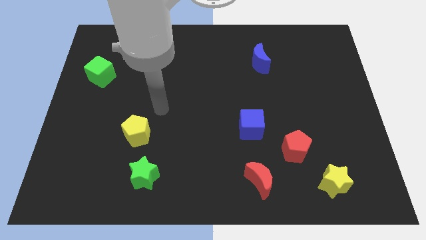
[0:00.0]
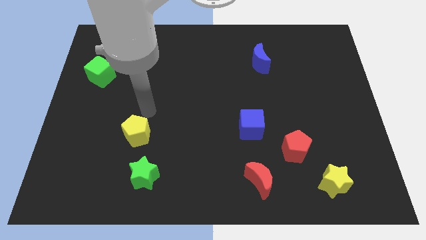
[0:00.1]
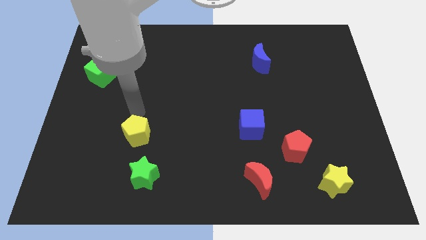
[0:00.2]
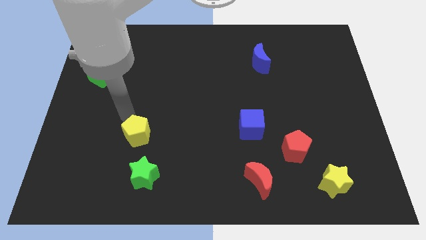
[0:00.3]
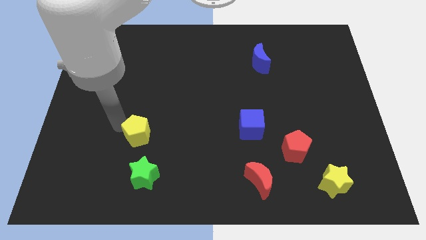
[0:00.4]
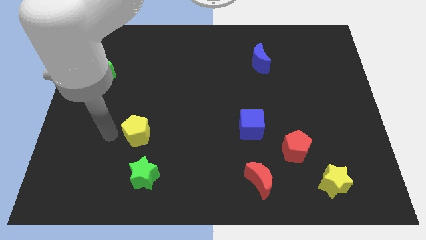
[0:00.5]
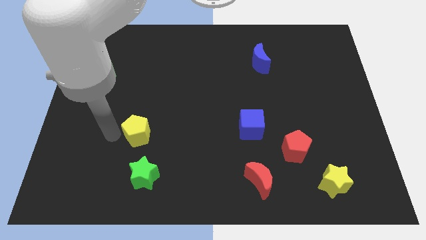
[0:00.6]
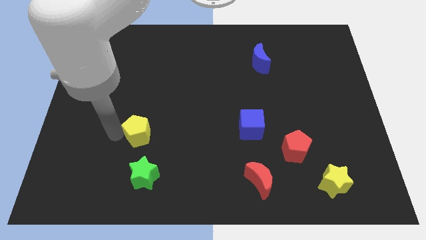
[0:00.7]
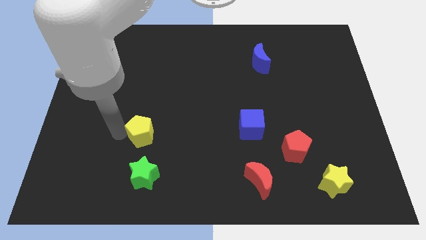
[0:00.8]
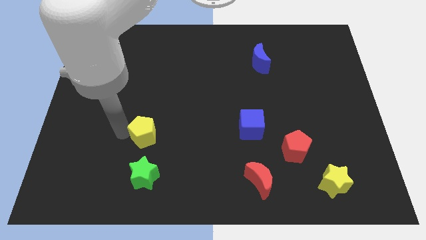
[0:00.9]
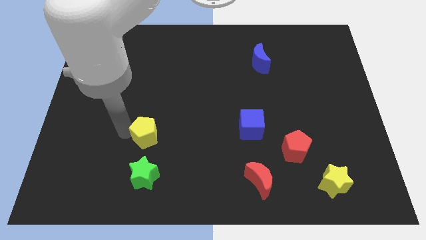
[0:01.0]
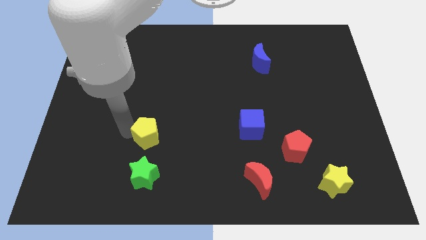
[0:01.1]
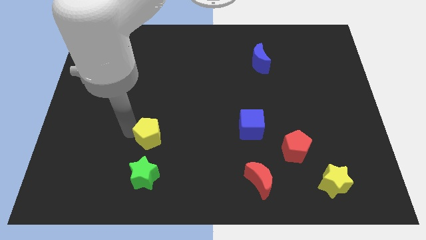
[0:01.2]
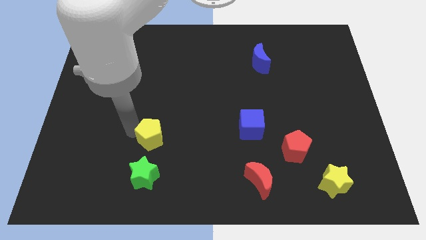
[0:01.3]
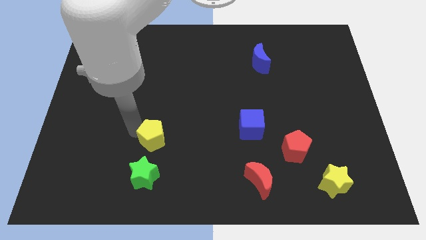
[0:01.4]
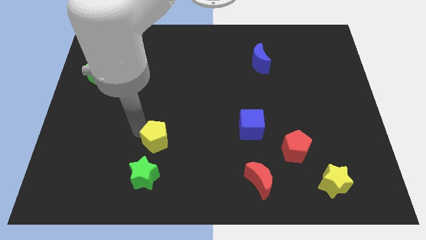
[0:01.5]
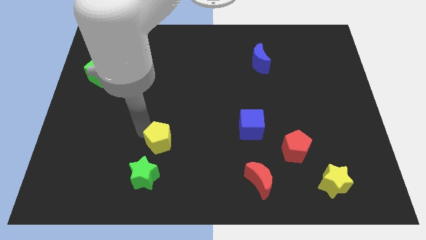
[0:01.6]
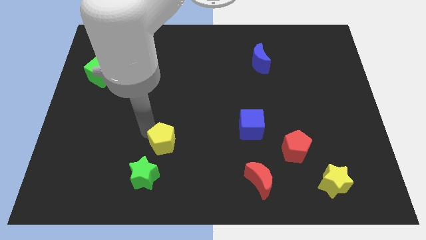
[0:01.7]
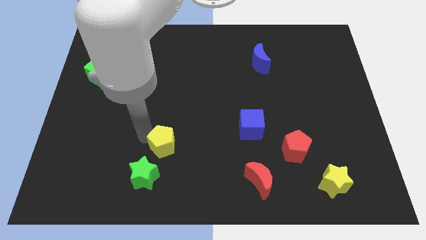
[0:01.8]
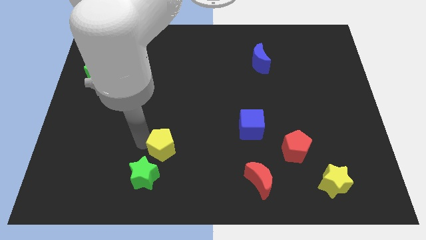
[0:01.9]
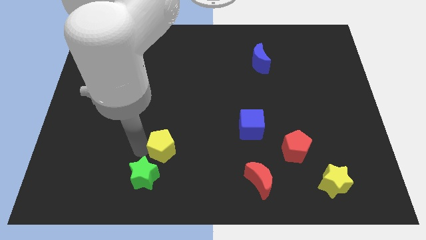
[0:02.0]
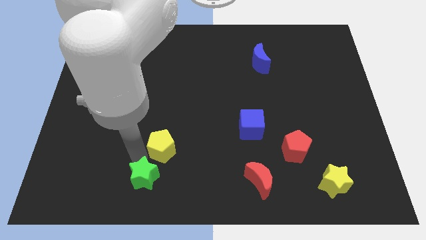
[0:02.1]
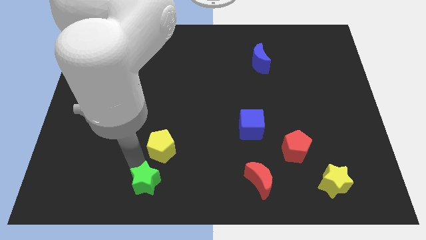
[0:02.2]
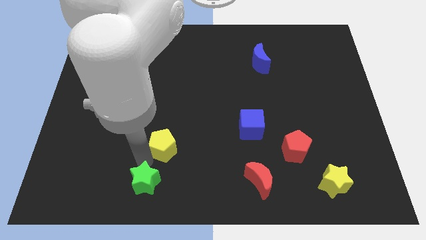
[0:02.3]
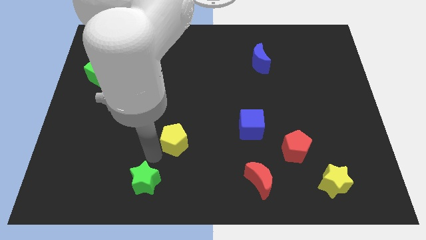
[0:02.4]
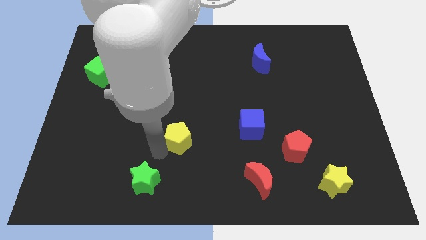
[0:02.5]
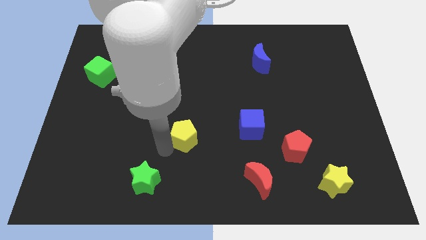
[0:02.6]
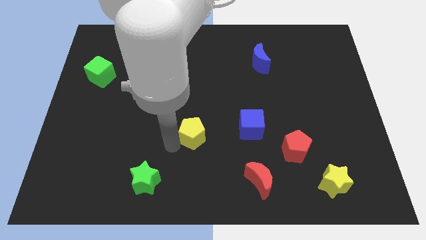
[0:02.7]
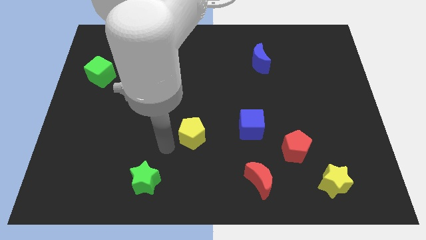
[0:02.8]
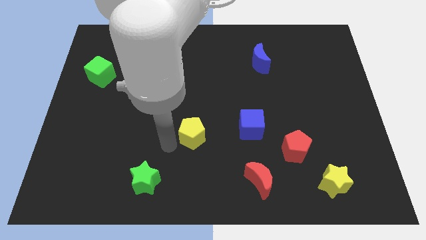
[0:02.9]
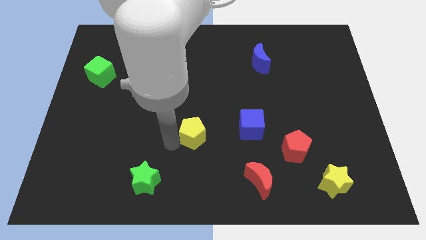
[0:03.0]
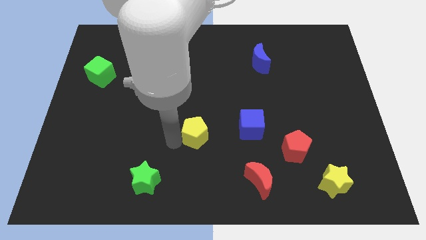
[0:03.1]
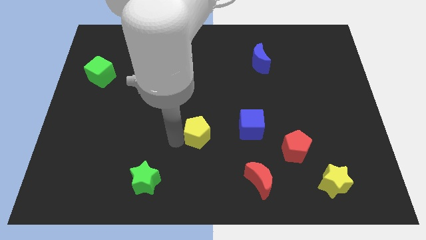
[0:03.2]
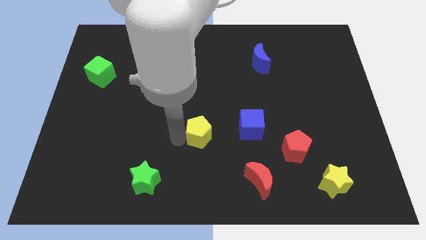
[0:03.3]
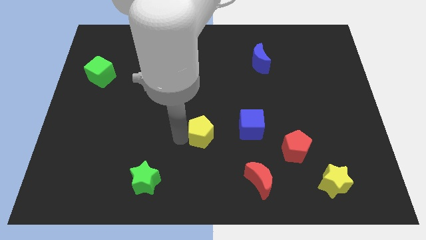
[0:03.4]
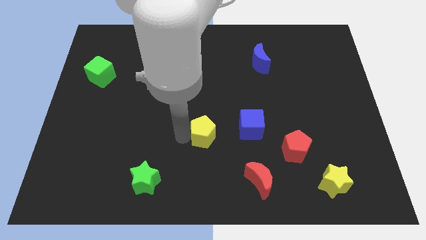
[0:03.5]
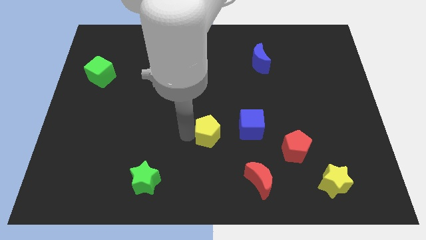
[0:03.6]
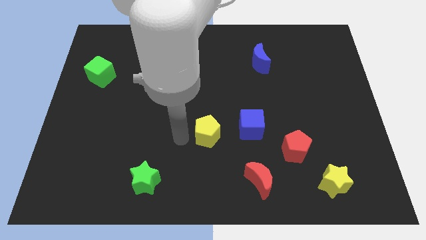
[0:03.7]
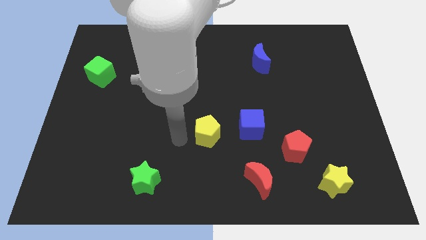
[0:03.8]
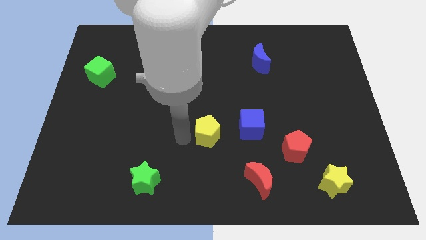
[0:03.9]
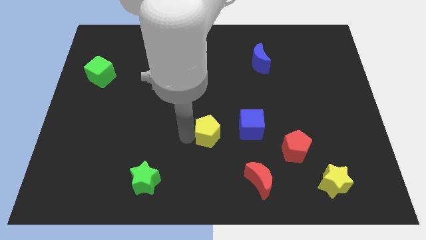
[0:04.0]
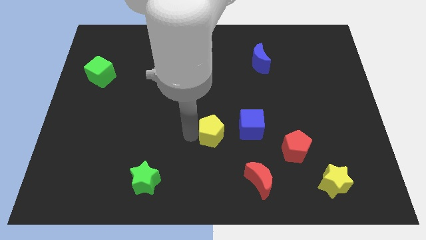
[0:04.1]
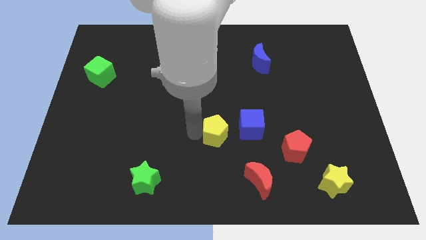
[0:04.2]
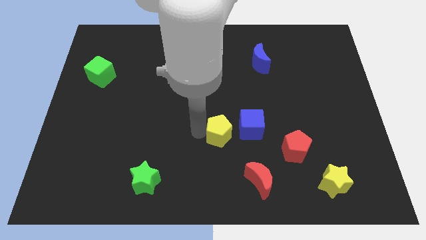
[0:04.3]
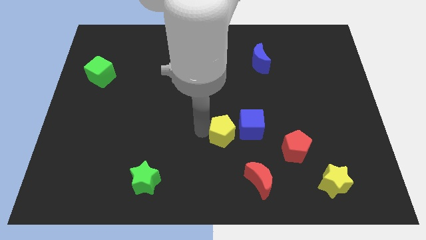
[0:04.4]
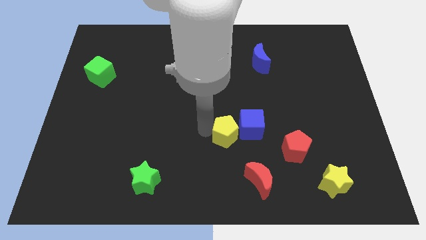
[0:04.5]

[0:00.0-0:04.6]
slide the yellow pentagon towards the blue cube

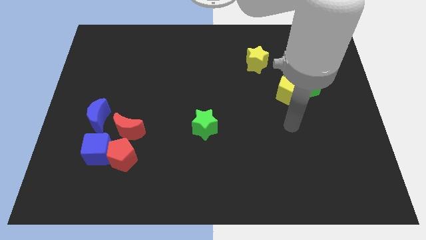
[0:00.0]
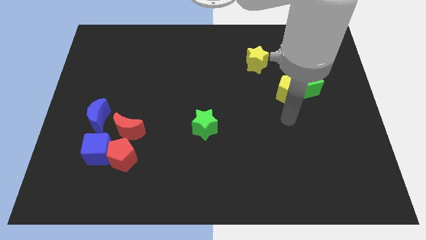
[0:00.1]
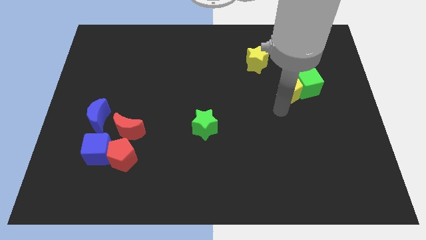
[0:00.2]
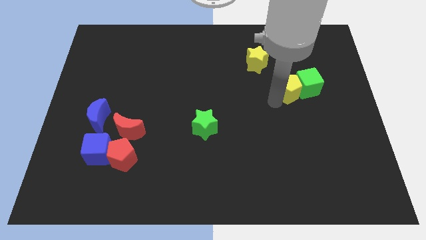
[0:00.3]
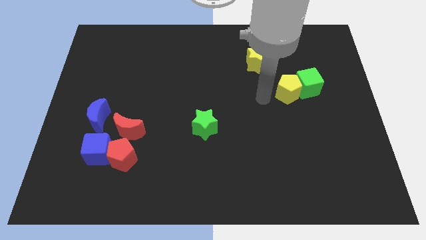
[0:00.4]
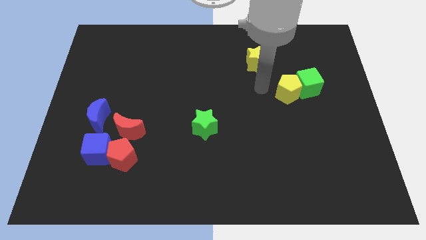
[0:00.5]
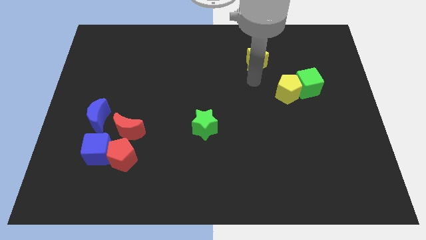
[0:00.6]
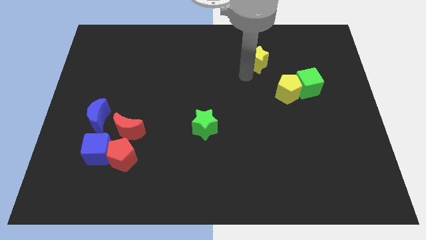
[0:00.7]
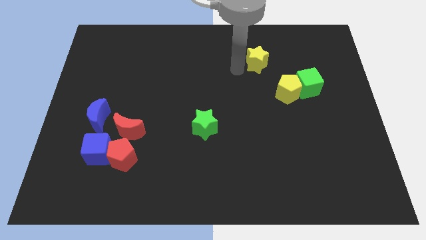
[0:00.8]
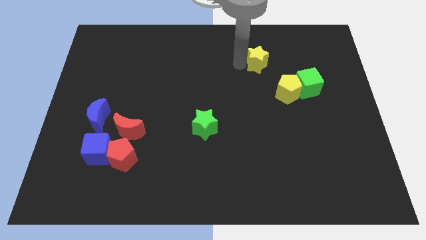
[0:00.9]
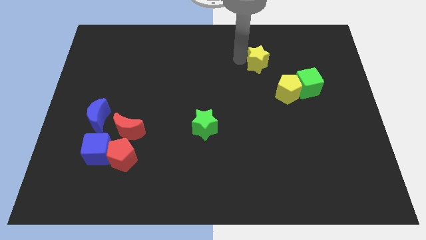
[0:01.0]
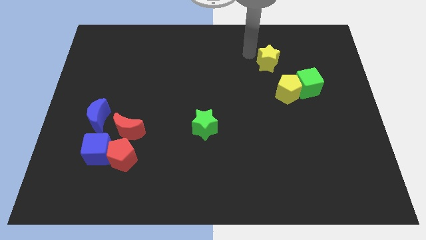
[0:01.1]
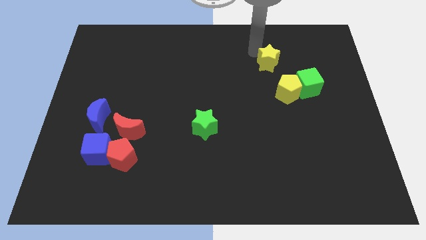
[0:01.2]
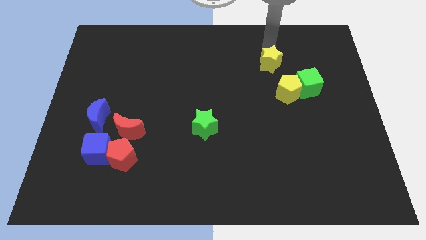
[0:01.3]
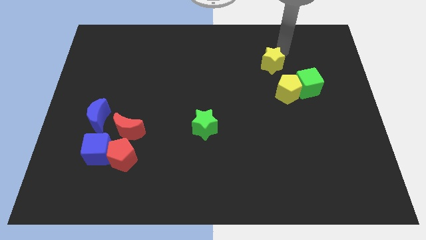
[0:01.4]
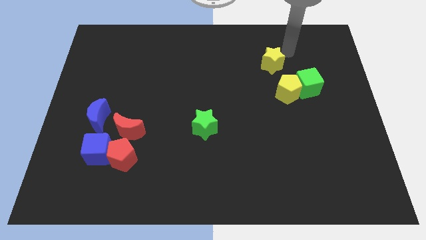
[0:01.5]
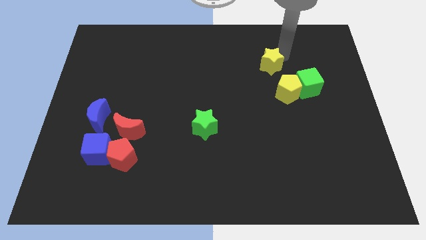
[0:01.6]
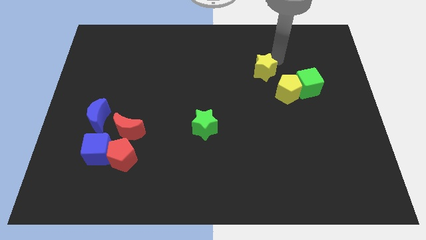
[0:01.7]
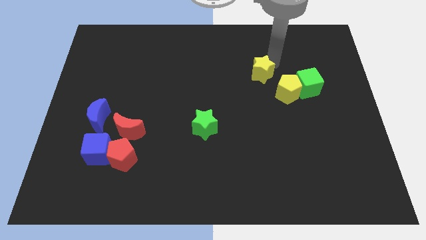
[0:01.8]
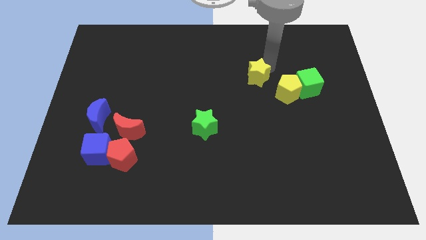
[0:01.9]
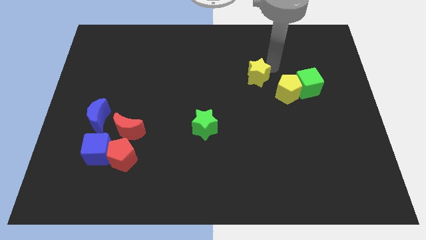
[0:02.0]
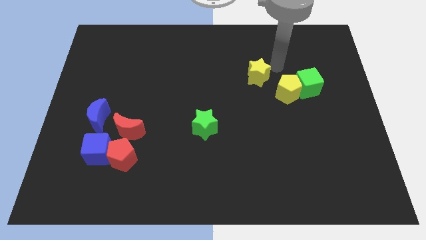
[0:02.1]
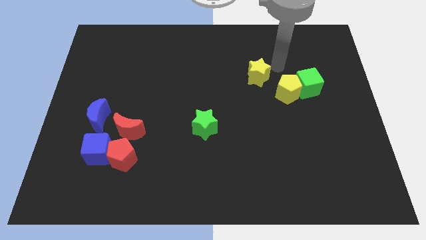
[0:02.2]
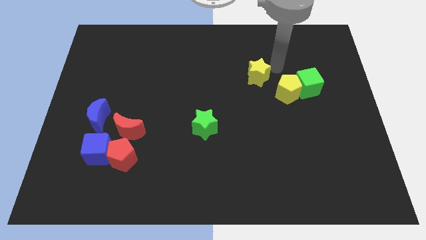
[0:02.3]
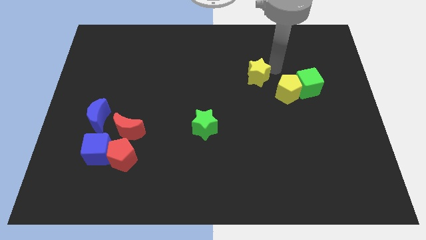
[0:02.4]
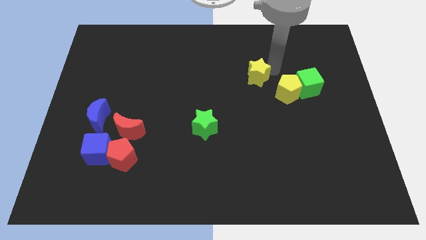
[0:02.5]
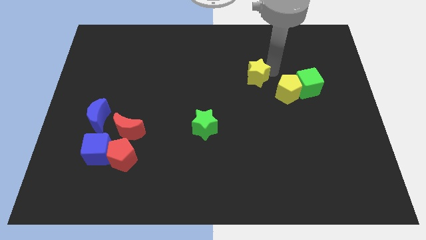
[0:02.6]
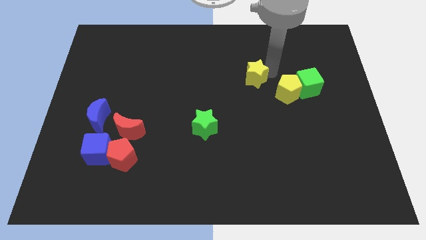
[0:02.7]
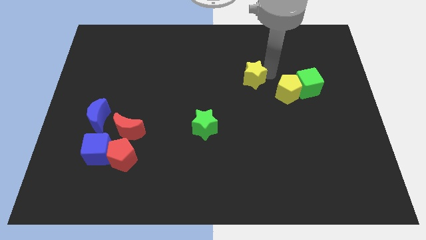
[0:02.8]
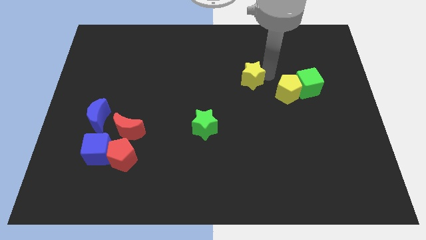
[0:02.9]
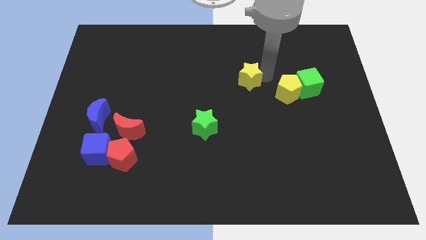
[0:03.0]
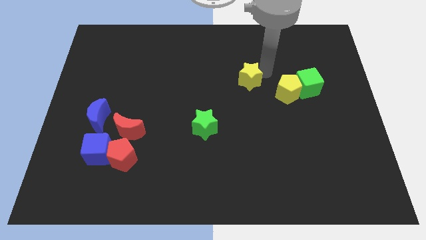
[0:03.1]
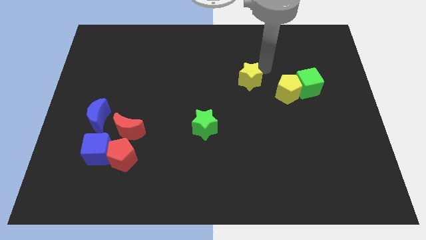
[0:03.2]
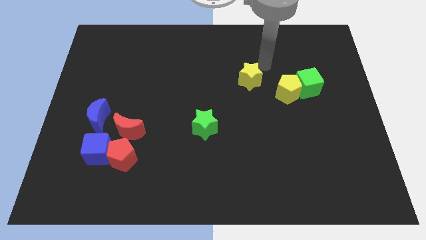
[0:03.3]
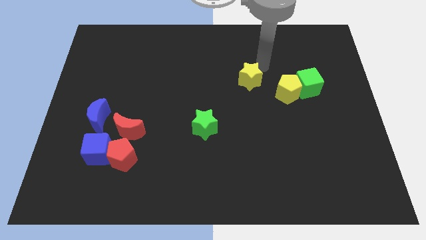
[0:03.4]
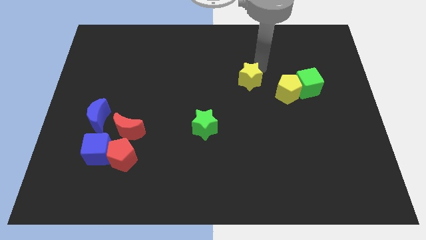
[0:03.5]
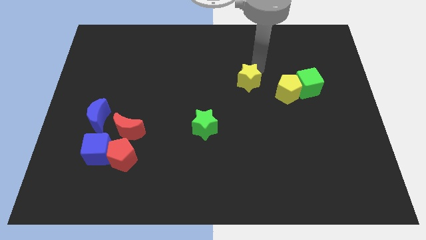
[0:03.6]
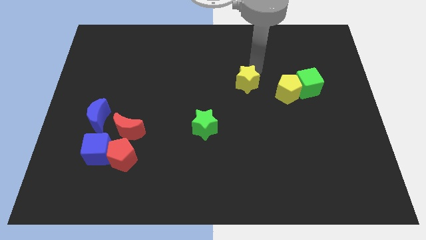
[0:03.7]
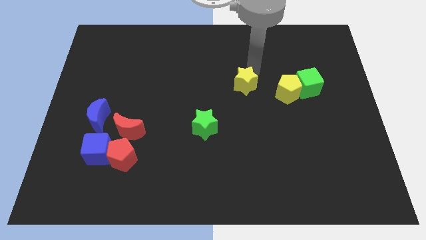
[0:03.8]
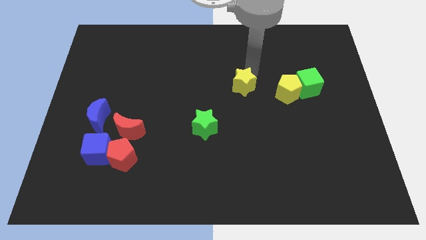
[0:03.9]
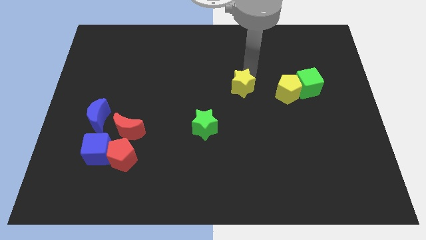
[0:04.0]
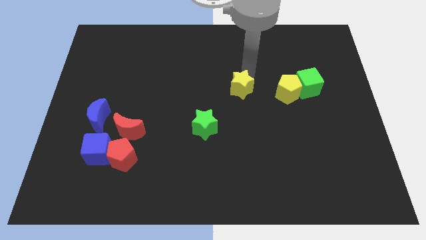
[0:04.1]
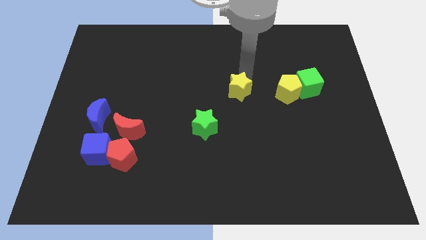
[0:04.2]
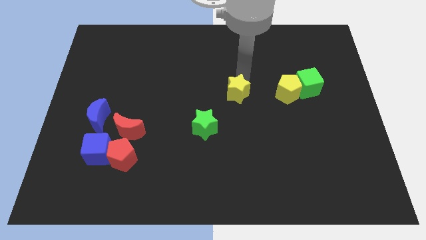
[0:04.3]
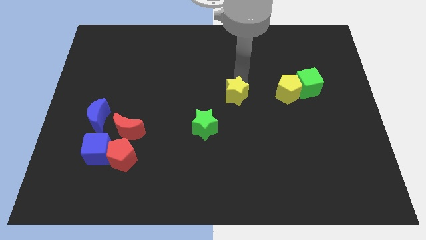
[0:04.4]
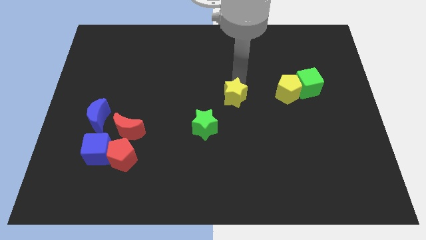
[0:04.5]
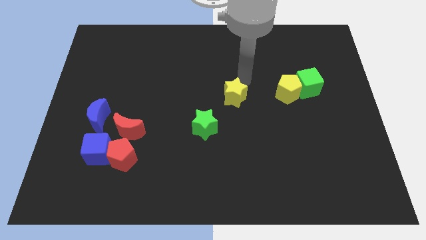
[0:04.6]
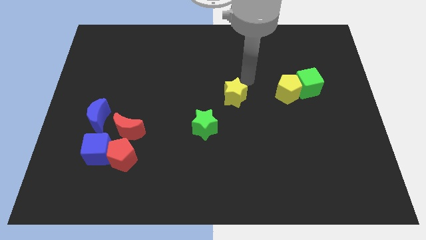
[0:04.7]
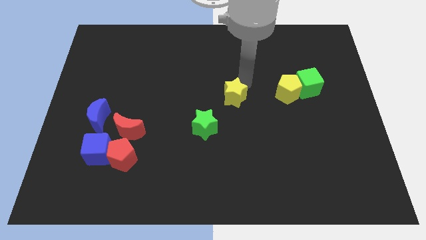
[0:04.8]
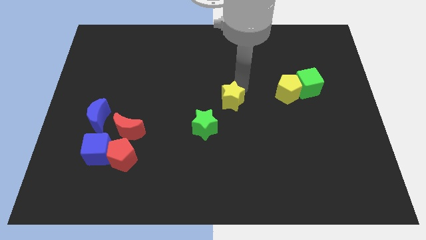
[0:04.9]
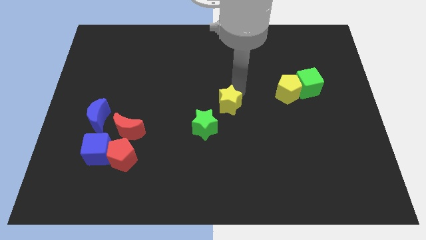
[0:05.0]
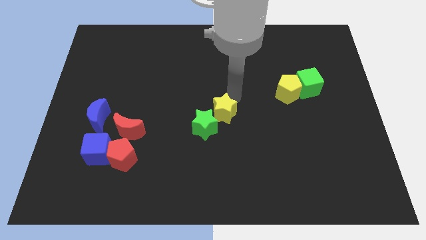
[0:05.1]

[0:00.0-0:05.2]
move the yellow star close to the green star
